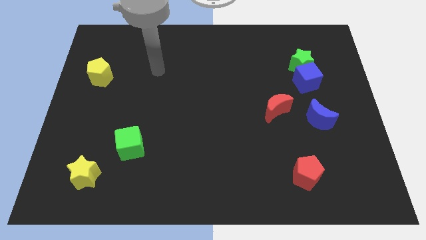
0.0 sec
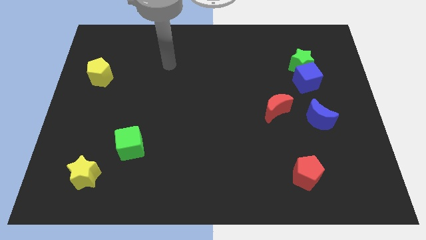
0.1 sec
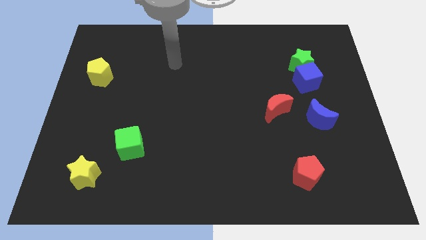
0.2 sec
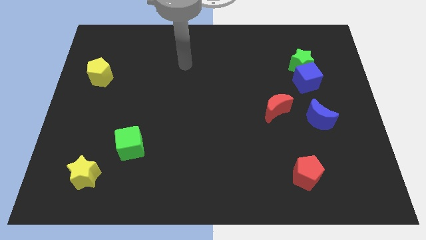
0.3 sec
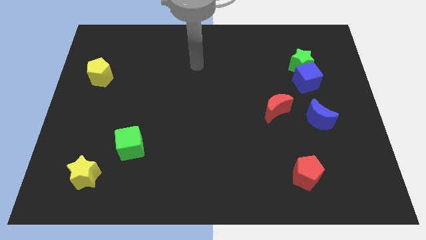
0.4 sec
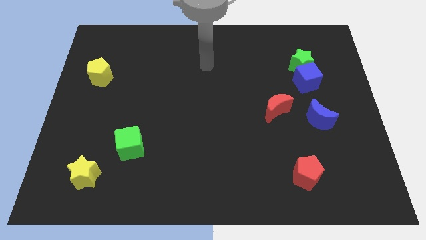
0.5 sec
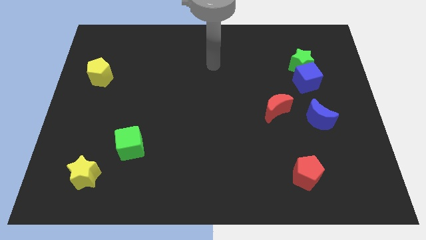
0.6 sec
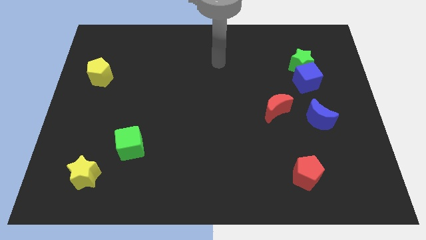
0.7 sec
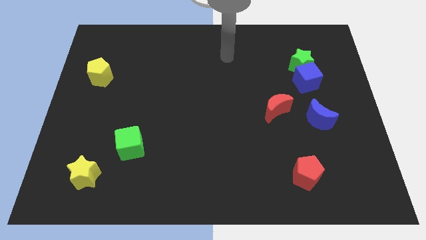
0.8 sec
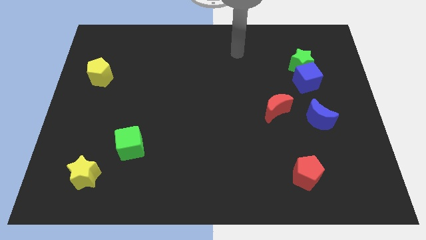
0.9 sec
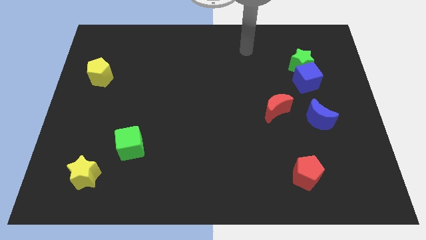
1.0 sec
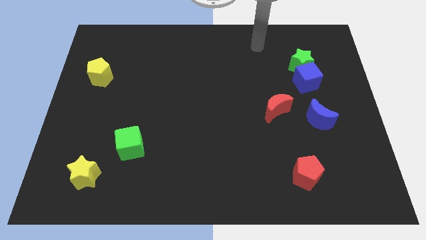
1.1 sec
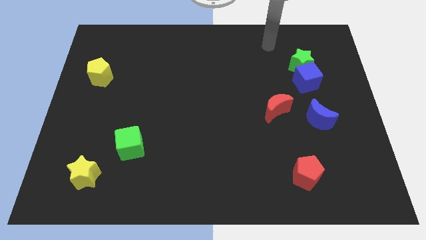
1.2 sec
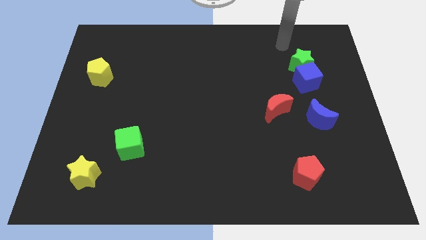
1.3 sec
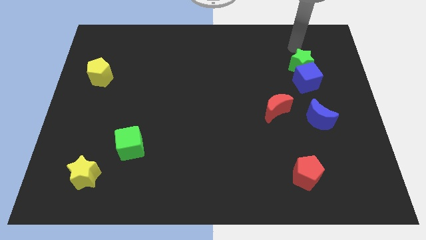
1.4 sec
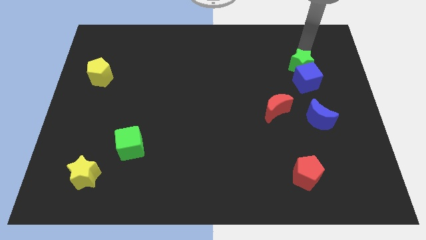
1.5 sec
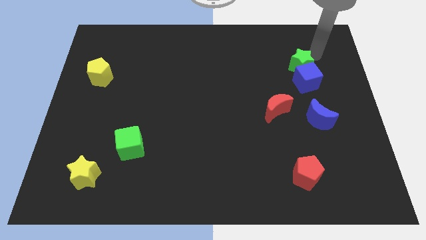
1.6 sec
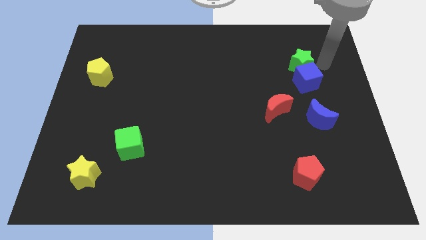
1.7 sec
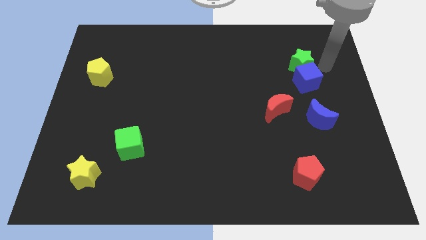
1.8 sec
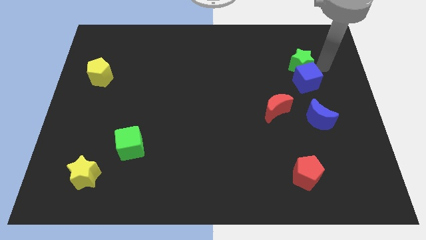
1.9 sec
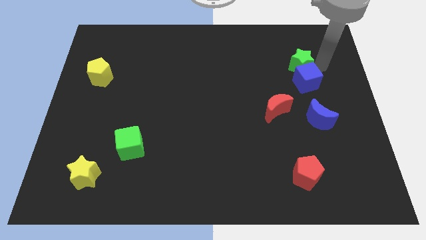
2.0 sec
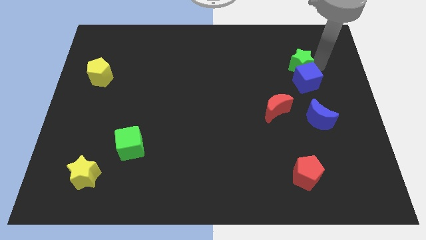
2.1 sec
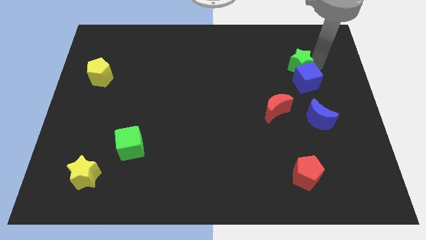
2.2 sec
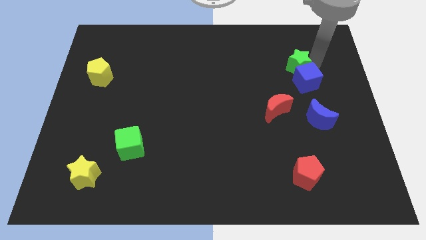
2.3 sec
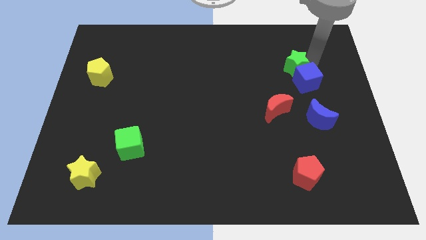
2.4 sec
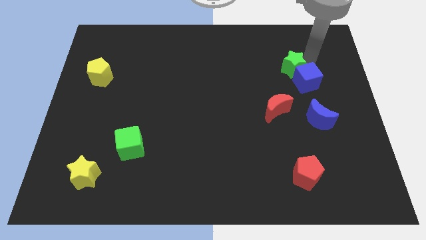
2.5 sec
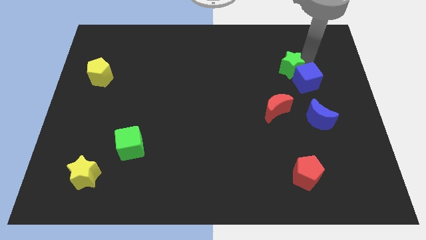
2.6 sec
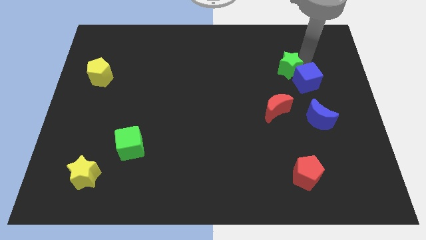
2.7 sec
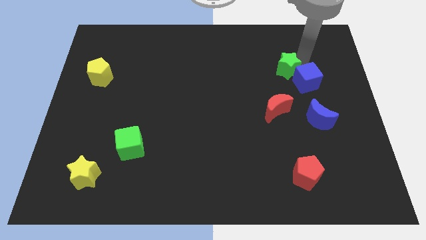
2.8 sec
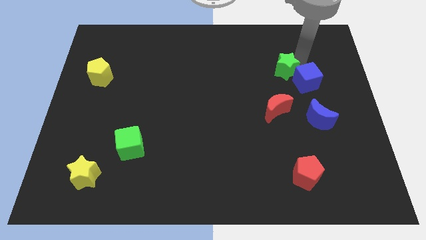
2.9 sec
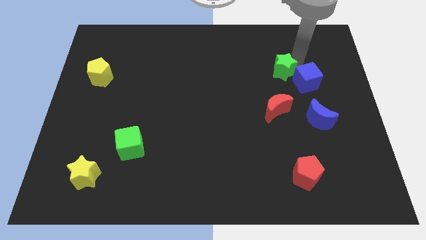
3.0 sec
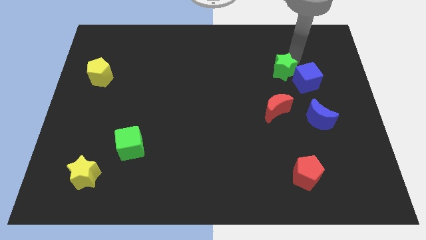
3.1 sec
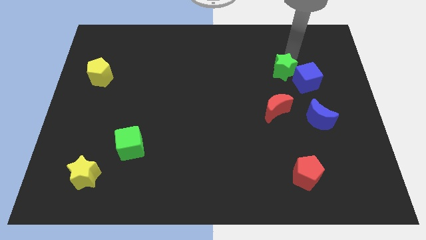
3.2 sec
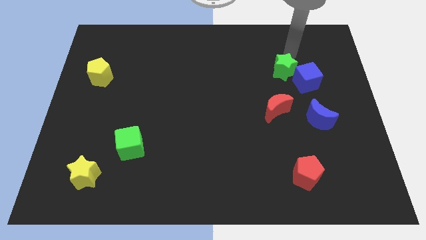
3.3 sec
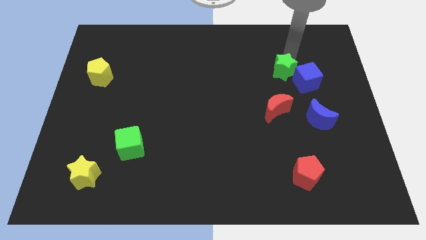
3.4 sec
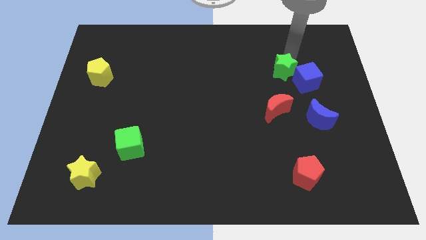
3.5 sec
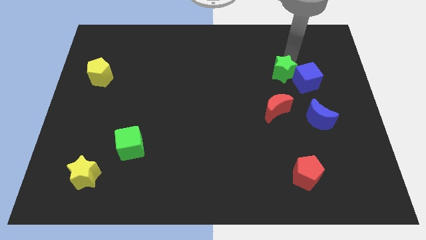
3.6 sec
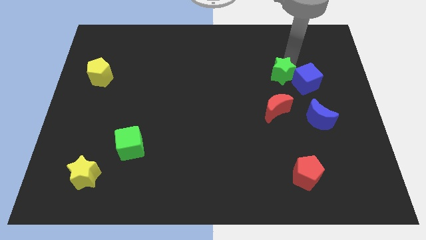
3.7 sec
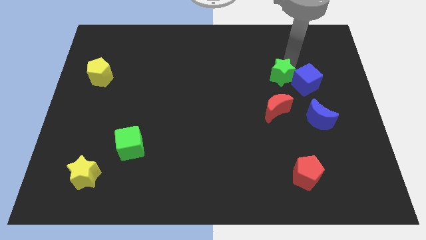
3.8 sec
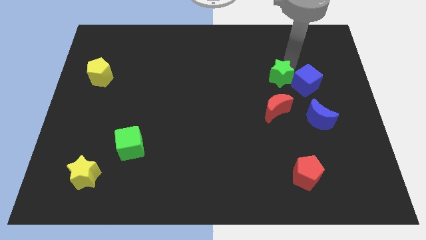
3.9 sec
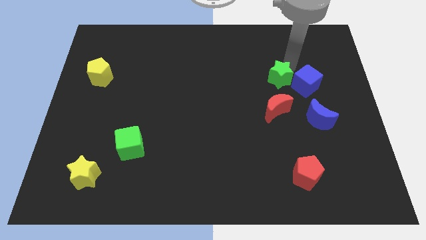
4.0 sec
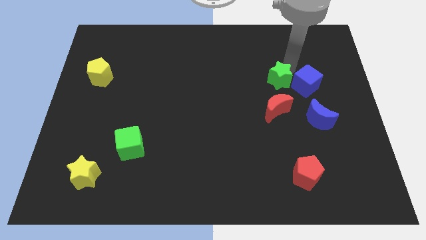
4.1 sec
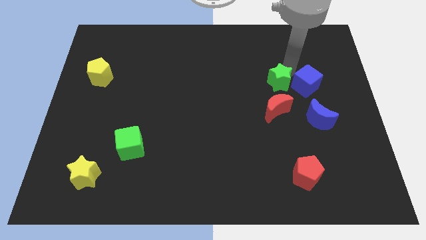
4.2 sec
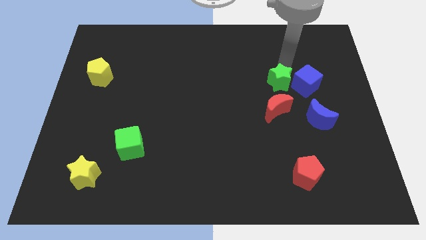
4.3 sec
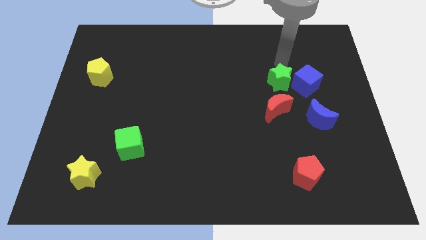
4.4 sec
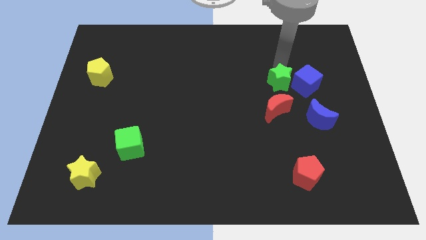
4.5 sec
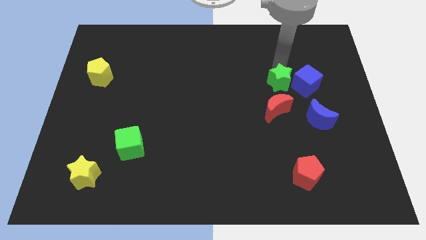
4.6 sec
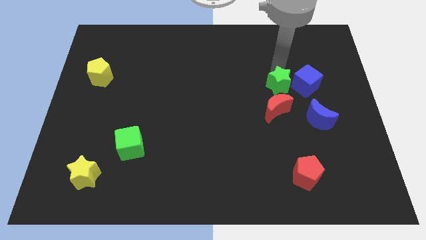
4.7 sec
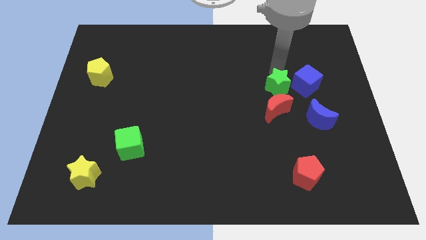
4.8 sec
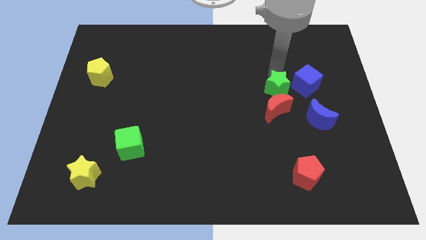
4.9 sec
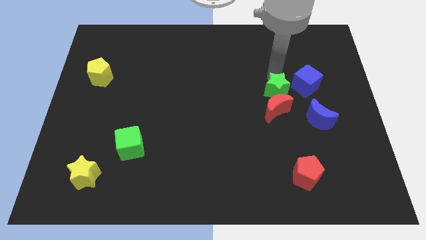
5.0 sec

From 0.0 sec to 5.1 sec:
push the green star towards the red moon

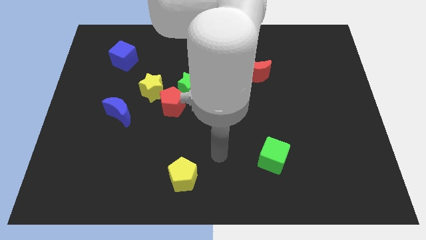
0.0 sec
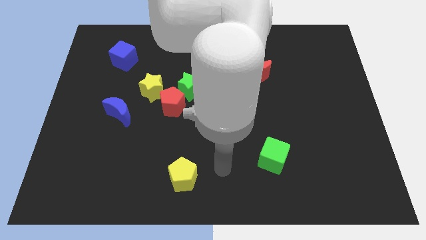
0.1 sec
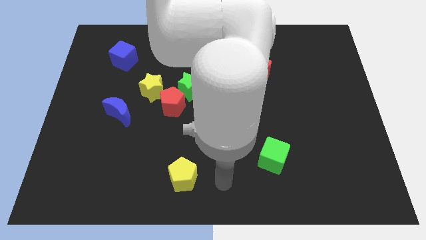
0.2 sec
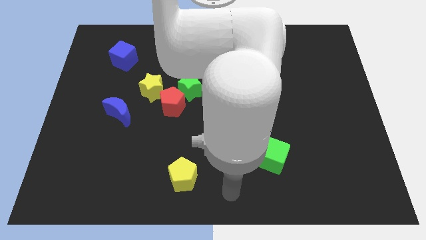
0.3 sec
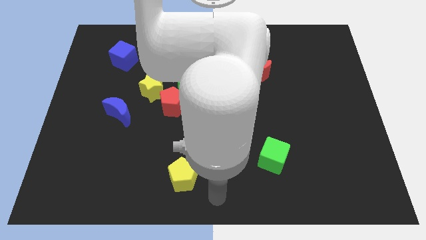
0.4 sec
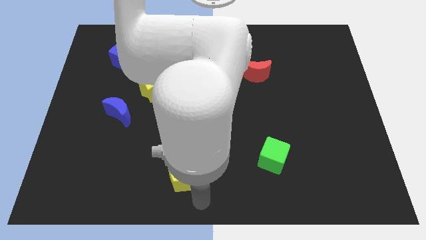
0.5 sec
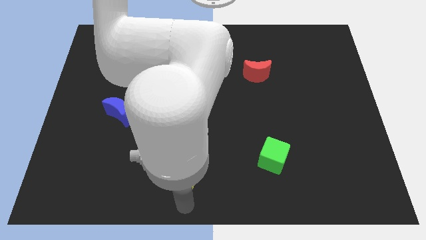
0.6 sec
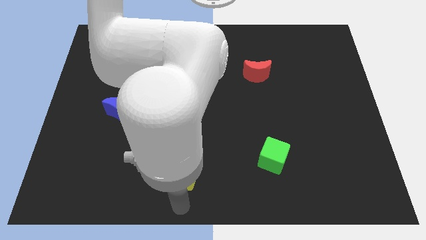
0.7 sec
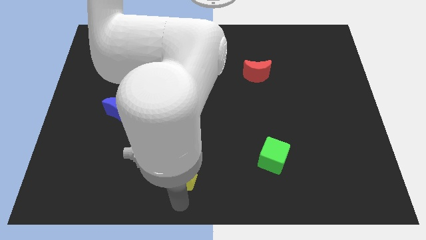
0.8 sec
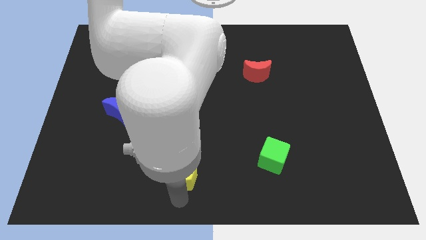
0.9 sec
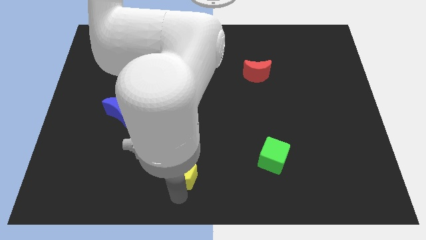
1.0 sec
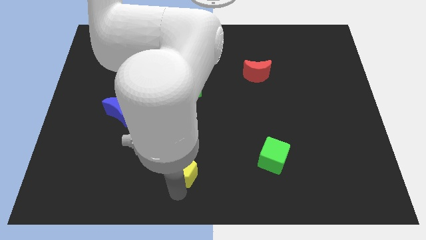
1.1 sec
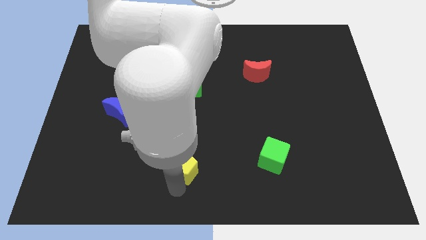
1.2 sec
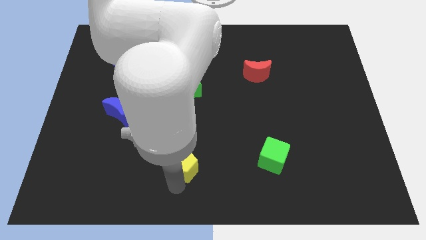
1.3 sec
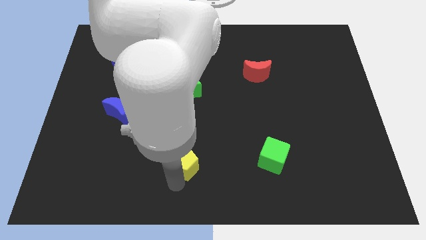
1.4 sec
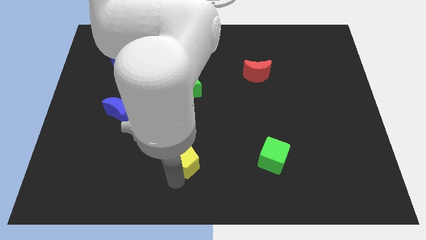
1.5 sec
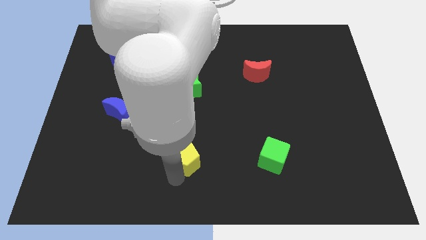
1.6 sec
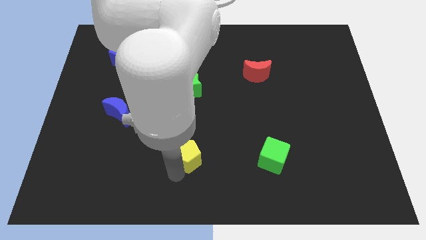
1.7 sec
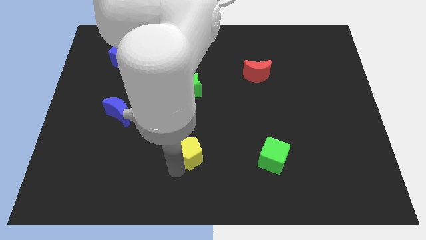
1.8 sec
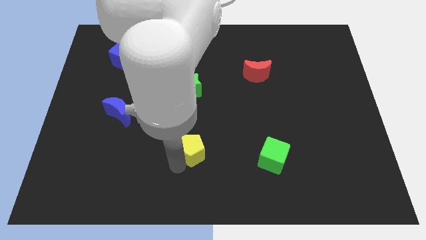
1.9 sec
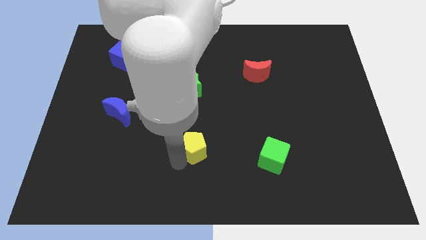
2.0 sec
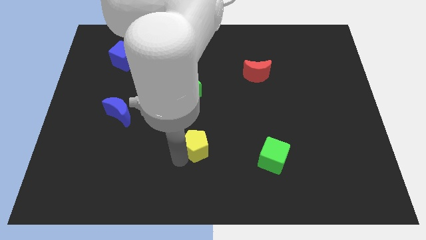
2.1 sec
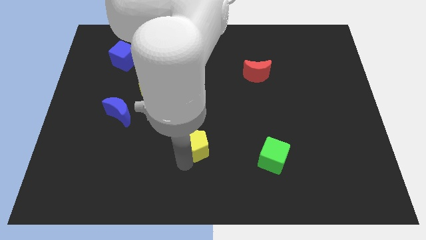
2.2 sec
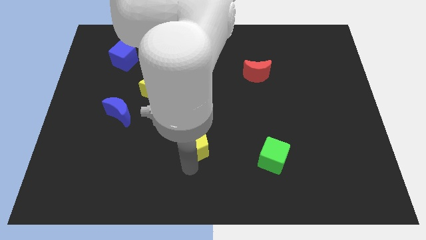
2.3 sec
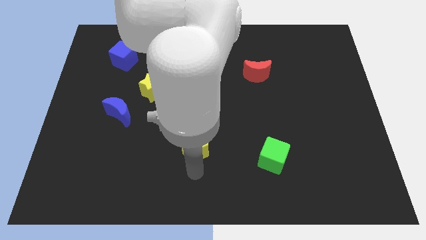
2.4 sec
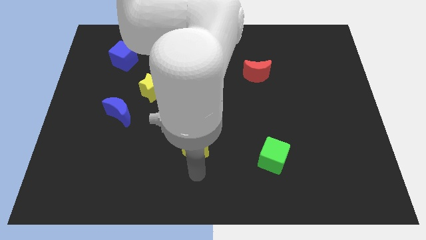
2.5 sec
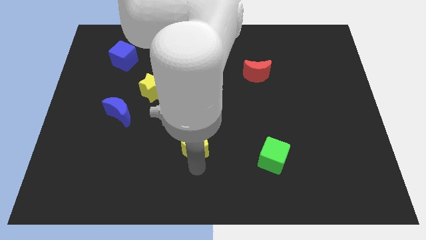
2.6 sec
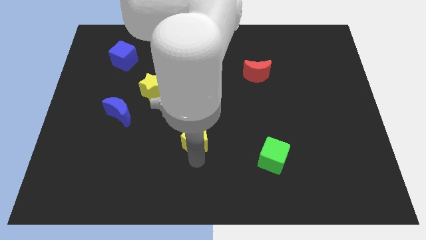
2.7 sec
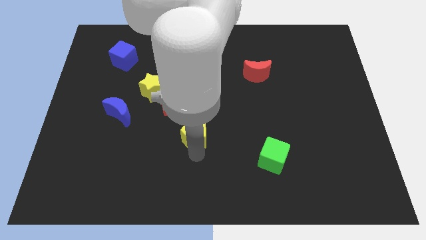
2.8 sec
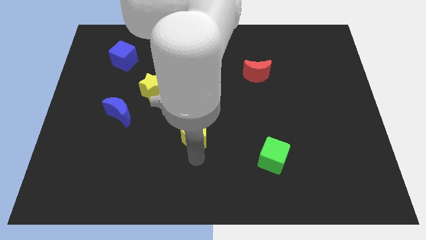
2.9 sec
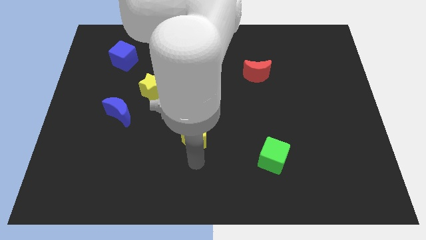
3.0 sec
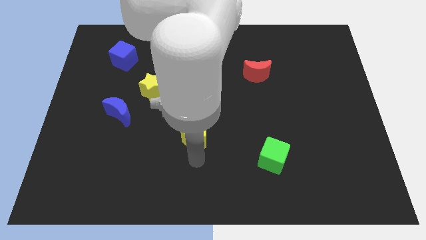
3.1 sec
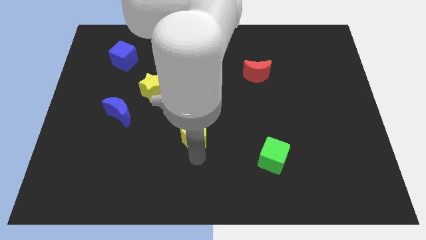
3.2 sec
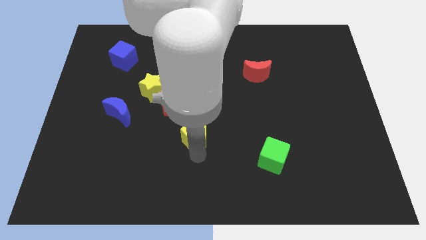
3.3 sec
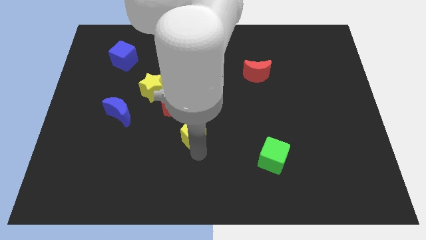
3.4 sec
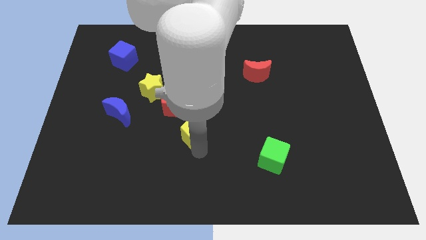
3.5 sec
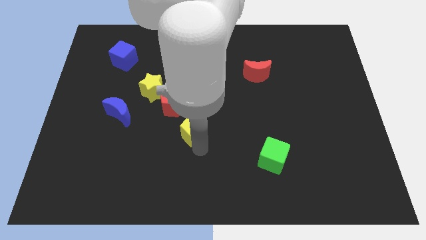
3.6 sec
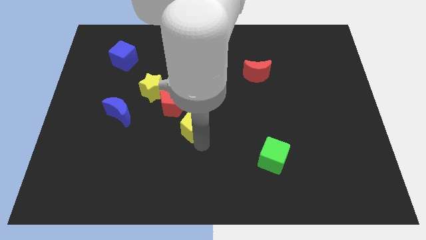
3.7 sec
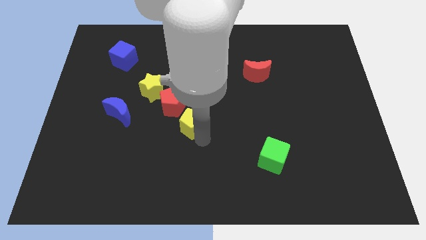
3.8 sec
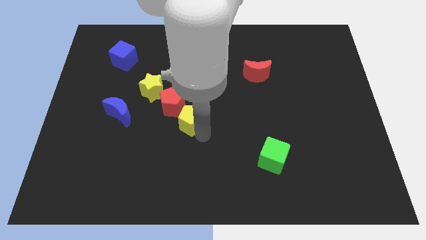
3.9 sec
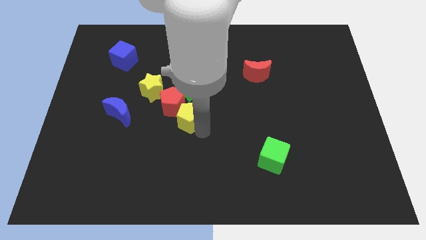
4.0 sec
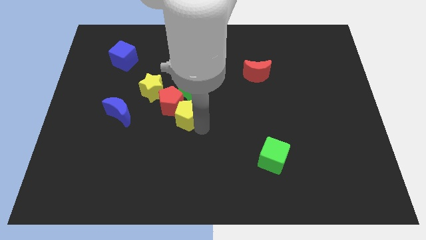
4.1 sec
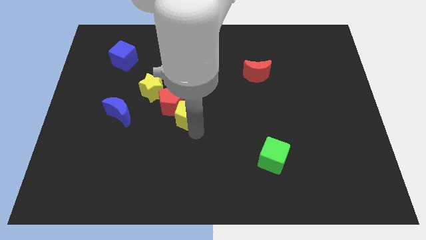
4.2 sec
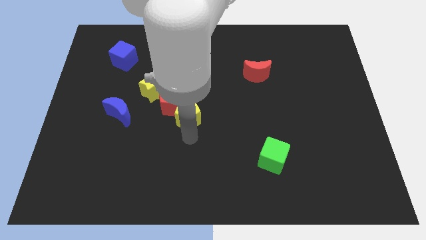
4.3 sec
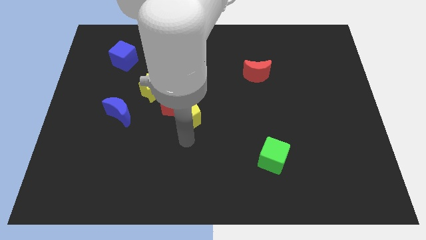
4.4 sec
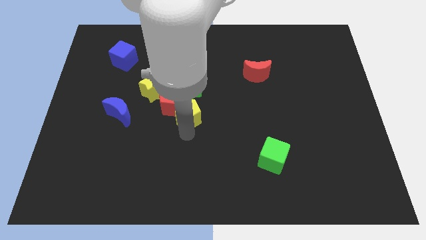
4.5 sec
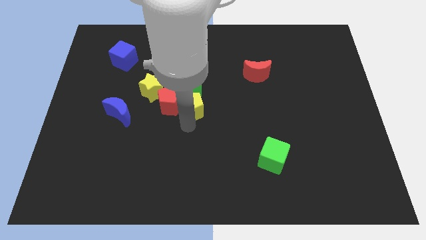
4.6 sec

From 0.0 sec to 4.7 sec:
push the yellow pentagon towards the green star
